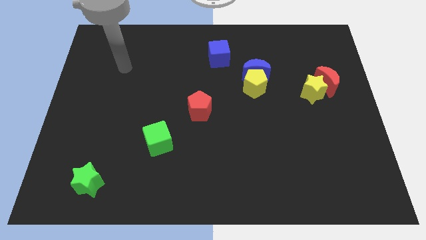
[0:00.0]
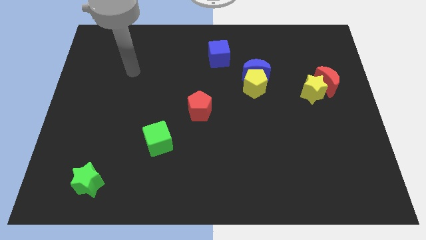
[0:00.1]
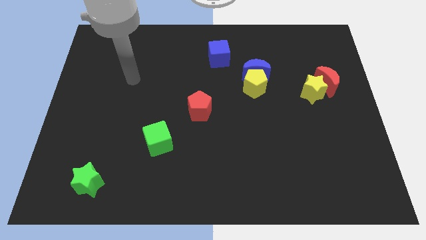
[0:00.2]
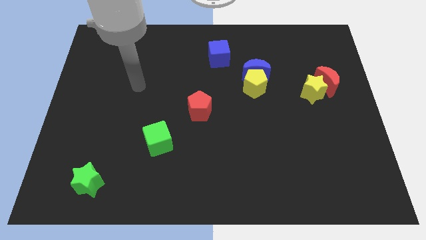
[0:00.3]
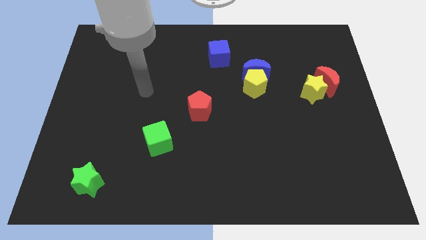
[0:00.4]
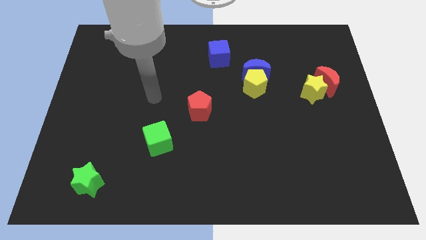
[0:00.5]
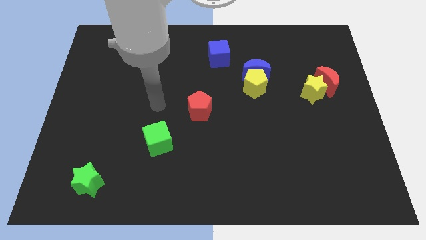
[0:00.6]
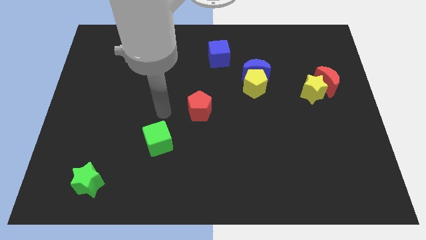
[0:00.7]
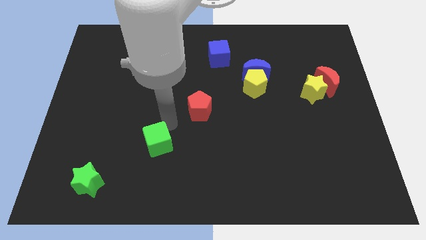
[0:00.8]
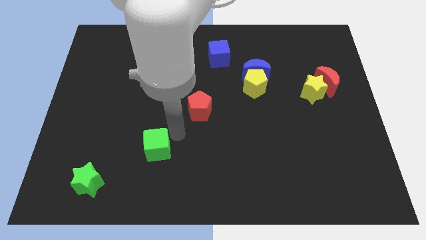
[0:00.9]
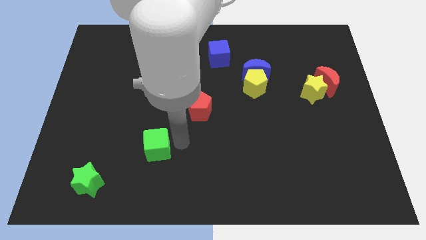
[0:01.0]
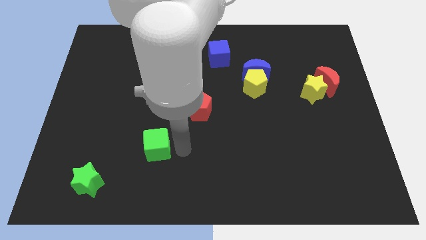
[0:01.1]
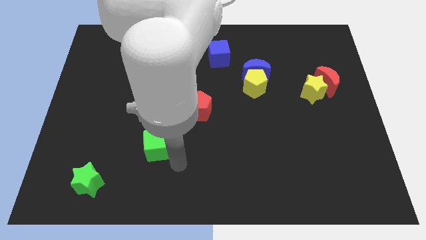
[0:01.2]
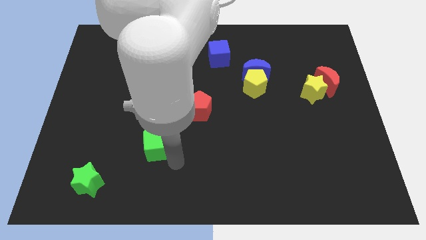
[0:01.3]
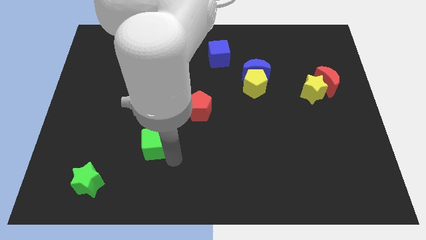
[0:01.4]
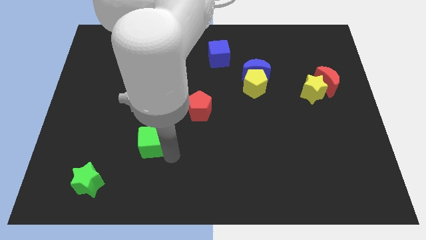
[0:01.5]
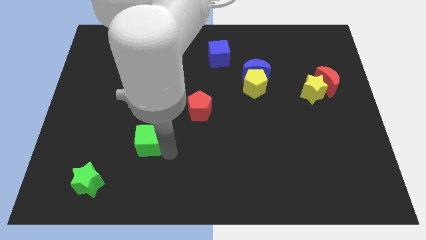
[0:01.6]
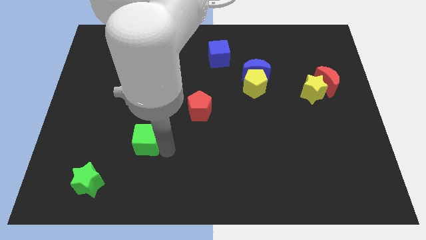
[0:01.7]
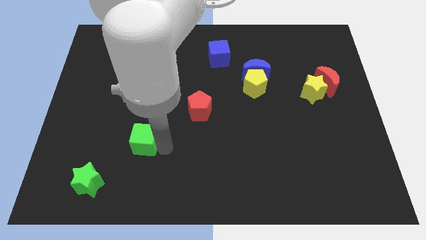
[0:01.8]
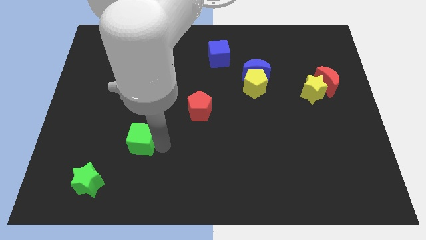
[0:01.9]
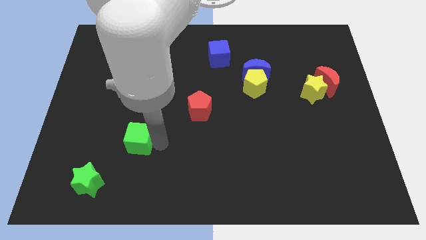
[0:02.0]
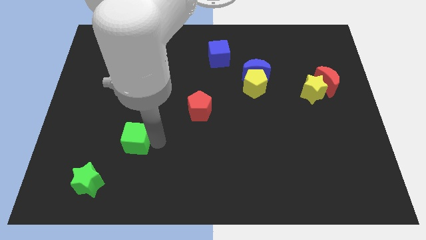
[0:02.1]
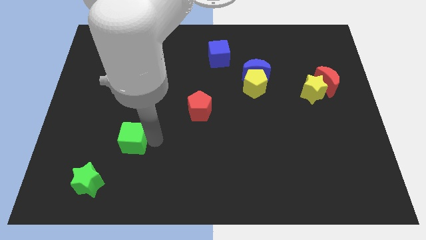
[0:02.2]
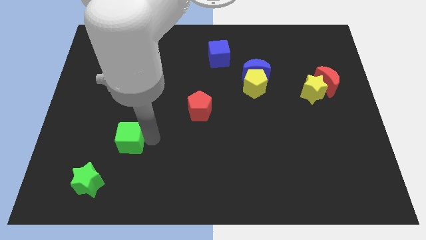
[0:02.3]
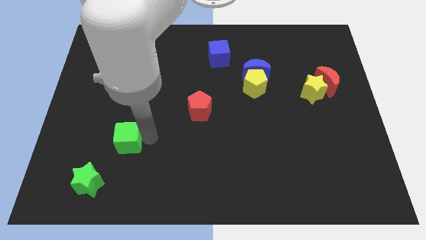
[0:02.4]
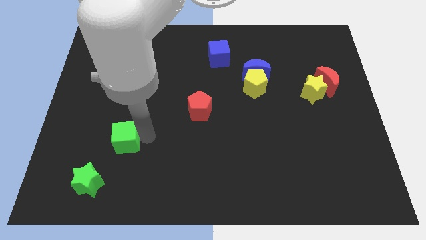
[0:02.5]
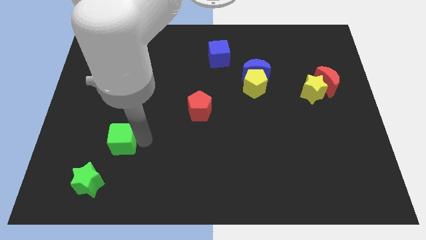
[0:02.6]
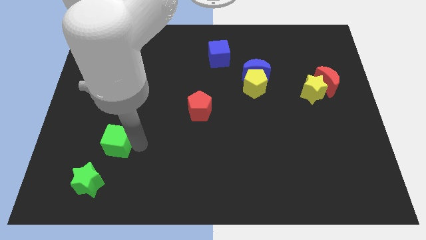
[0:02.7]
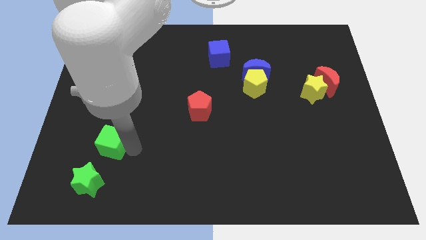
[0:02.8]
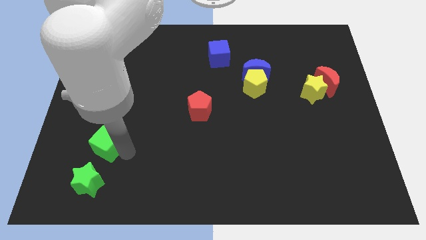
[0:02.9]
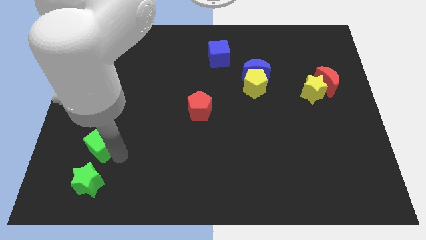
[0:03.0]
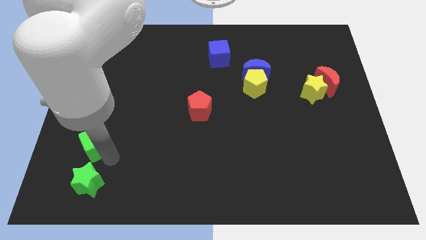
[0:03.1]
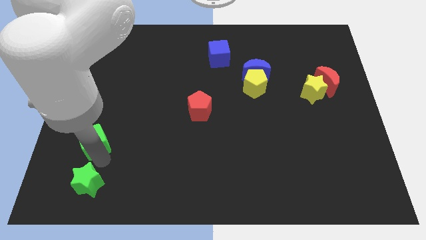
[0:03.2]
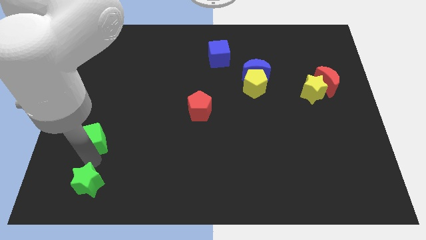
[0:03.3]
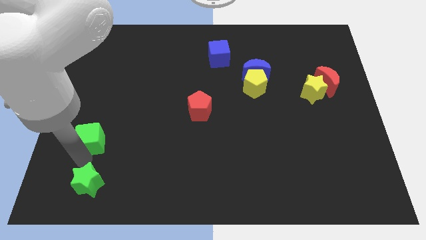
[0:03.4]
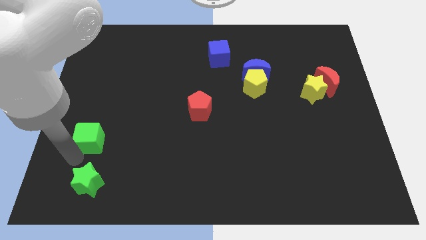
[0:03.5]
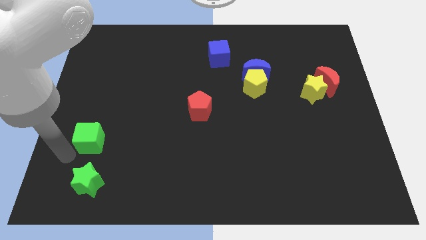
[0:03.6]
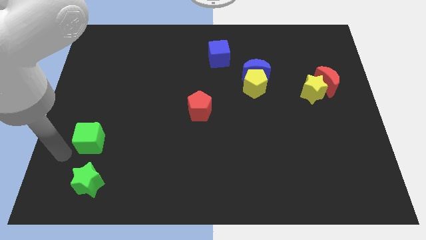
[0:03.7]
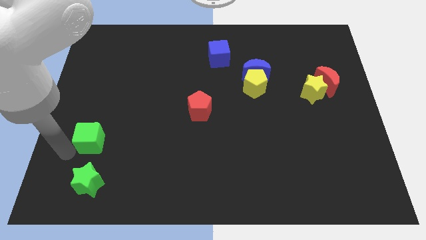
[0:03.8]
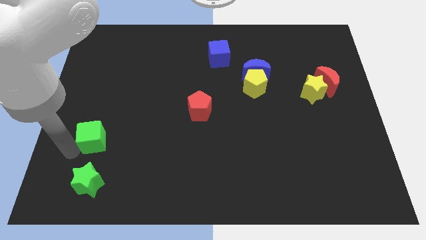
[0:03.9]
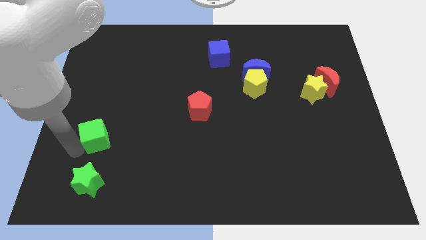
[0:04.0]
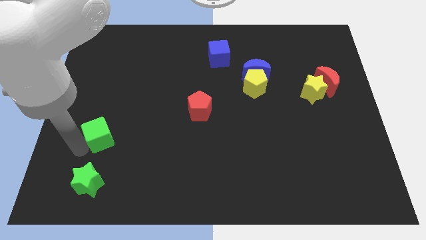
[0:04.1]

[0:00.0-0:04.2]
slightly slide the green cube upwards and left diagonally

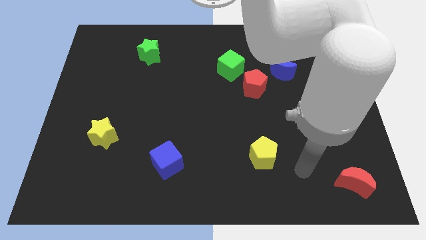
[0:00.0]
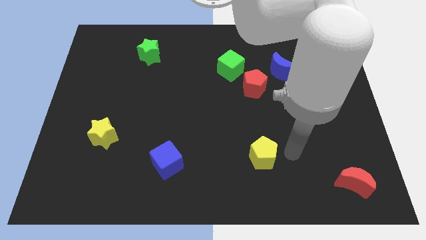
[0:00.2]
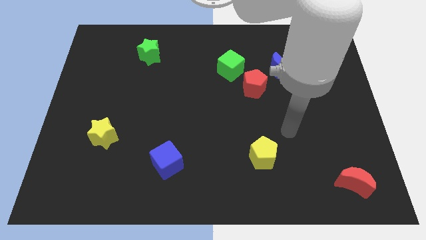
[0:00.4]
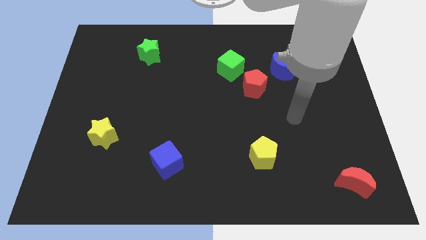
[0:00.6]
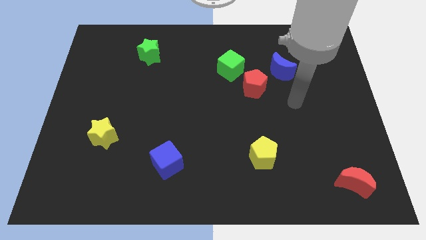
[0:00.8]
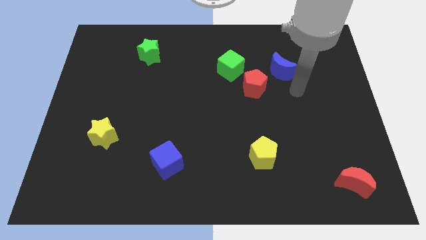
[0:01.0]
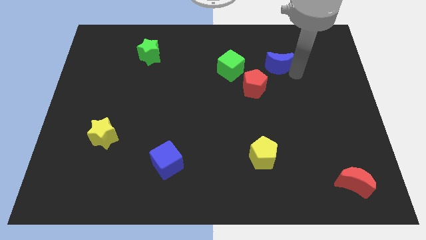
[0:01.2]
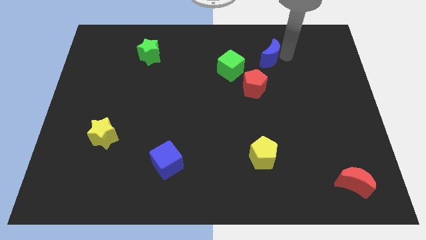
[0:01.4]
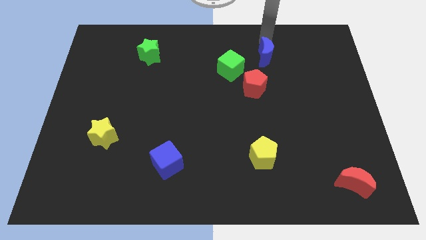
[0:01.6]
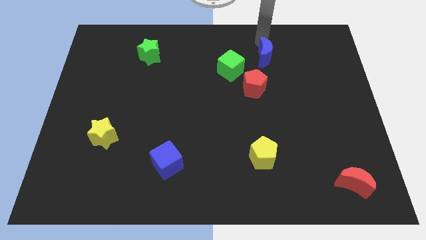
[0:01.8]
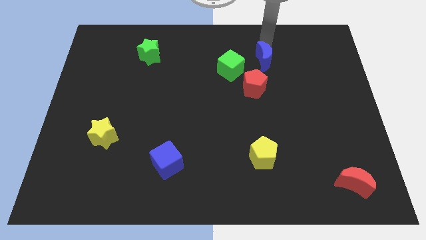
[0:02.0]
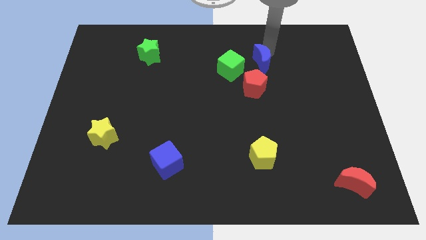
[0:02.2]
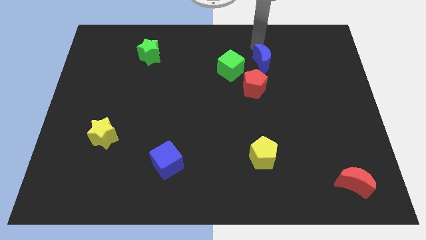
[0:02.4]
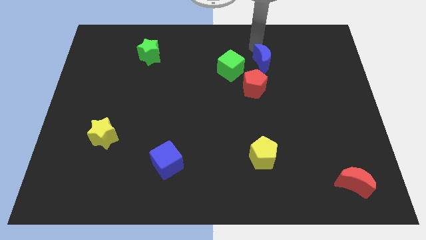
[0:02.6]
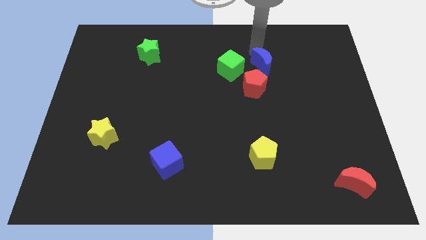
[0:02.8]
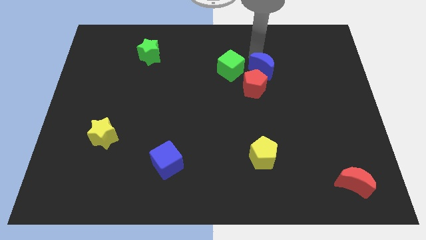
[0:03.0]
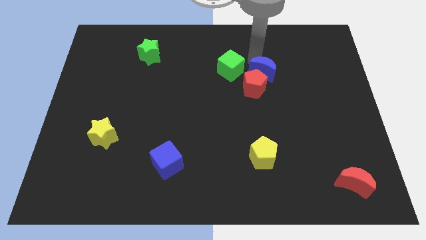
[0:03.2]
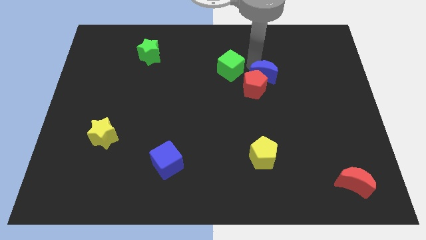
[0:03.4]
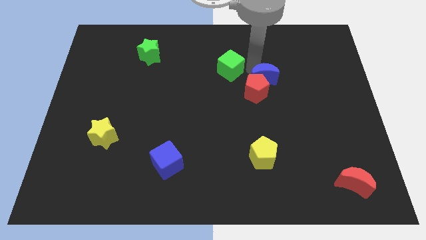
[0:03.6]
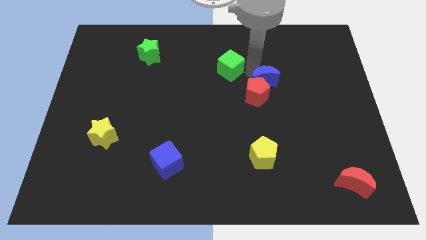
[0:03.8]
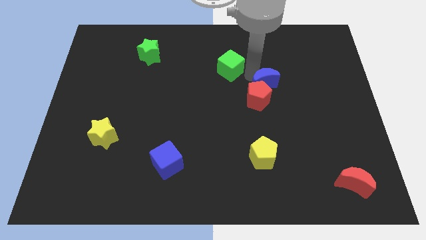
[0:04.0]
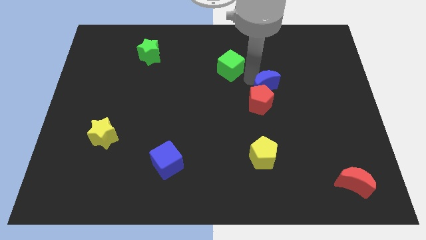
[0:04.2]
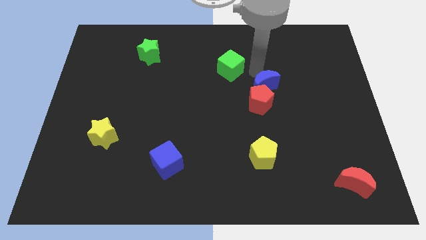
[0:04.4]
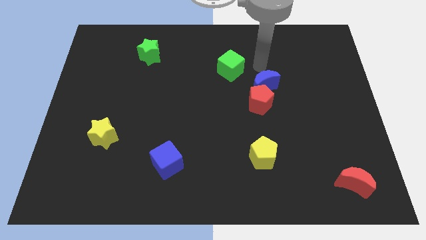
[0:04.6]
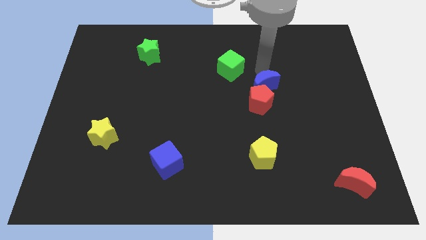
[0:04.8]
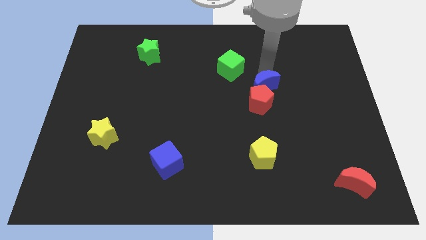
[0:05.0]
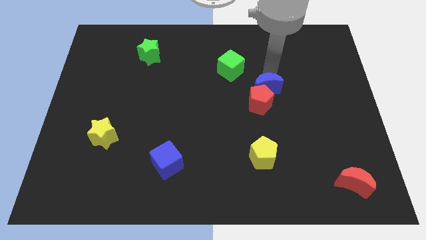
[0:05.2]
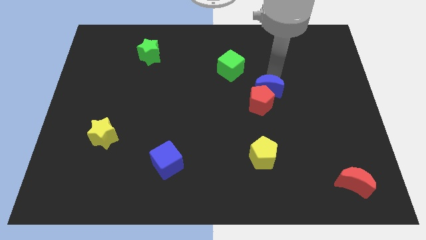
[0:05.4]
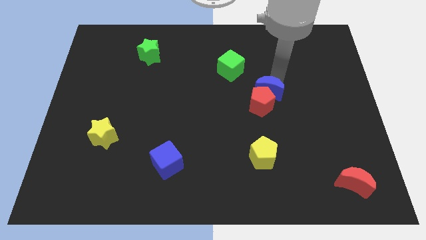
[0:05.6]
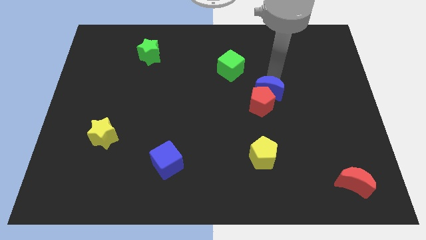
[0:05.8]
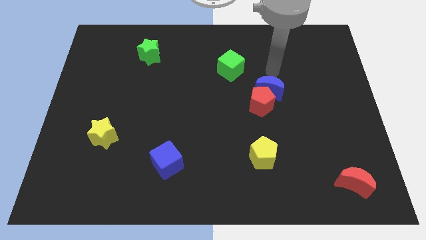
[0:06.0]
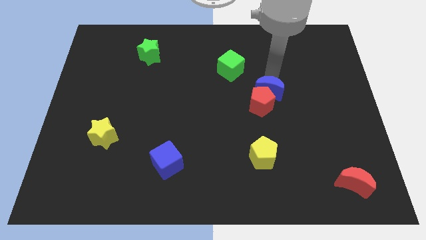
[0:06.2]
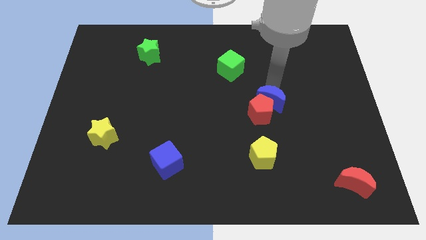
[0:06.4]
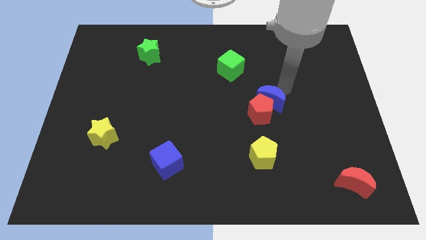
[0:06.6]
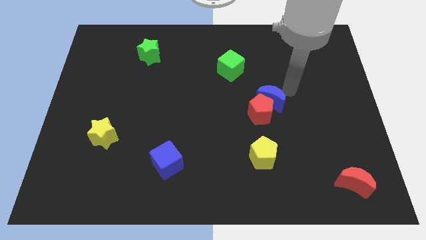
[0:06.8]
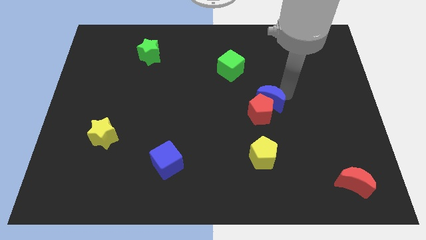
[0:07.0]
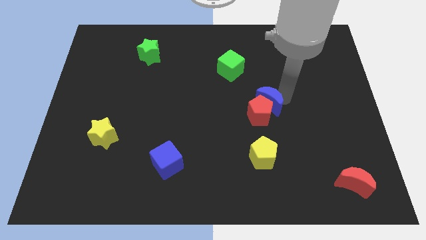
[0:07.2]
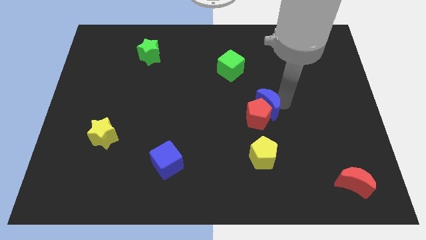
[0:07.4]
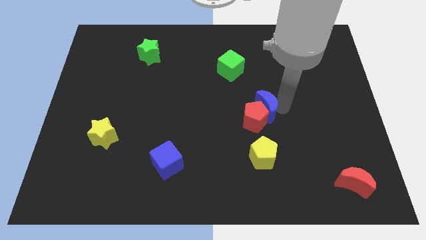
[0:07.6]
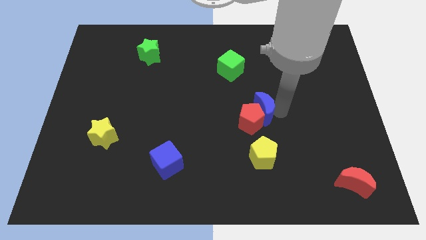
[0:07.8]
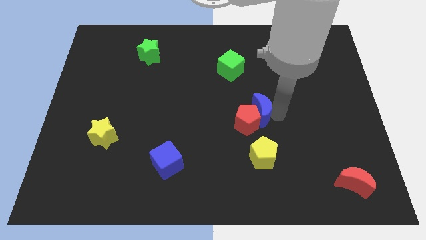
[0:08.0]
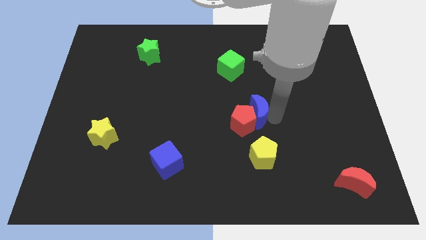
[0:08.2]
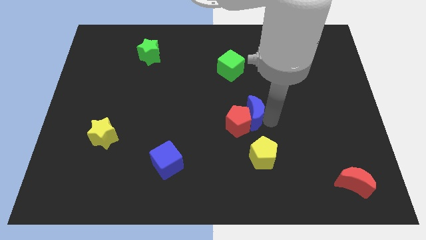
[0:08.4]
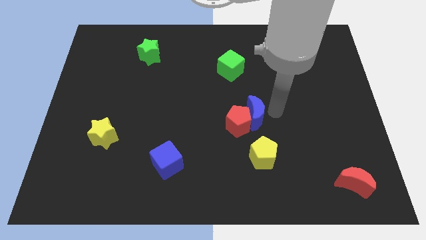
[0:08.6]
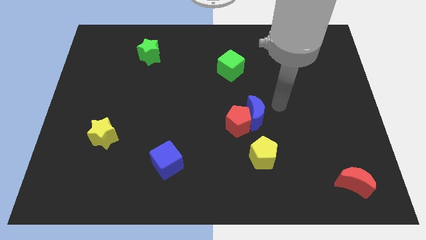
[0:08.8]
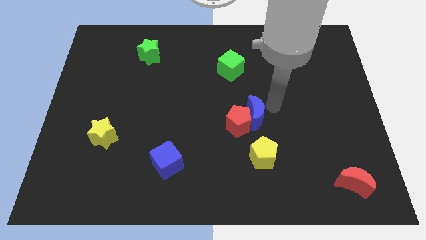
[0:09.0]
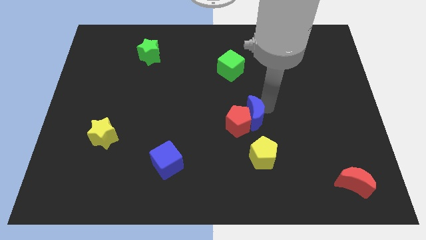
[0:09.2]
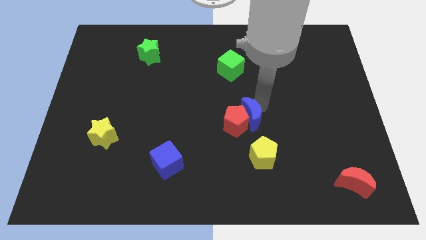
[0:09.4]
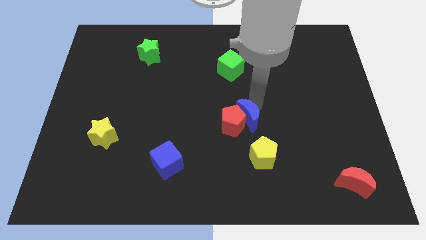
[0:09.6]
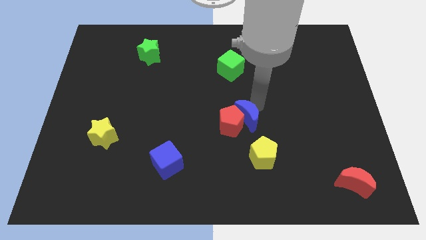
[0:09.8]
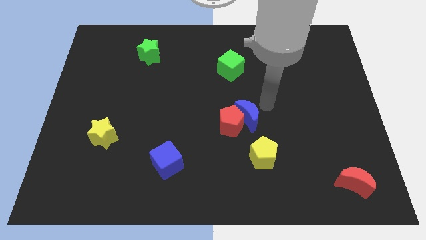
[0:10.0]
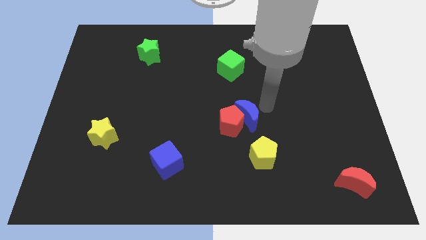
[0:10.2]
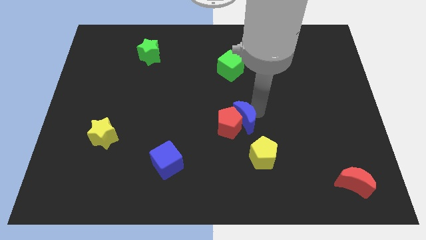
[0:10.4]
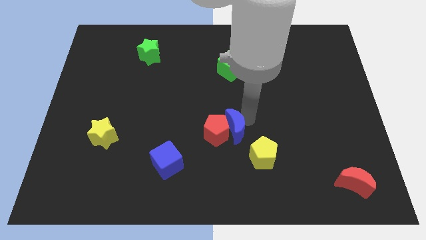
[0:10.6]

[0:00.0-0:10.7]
move the blue moon down and then left
